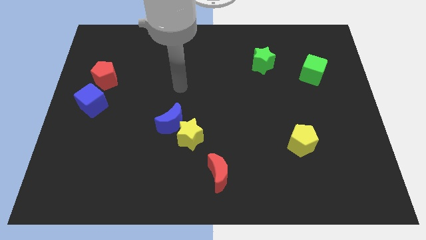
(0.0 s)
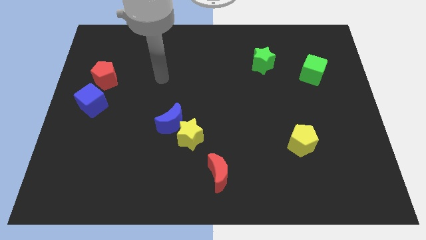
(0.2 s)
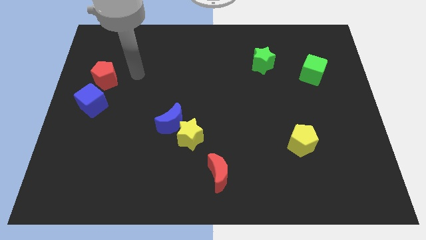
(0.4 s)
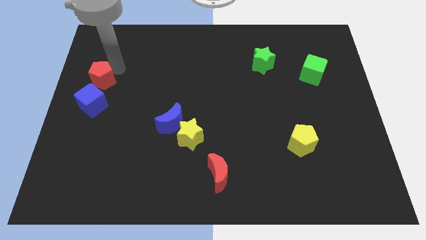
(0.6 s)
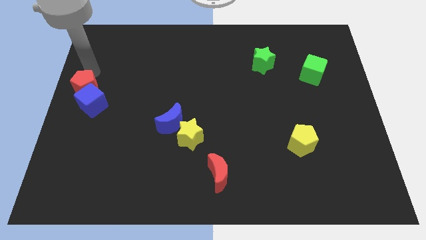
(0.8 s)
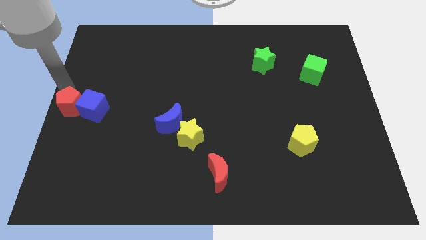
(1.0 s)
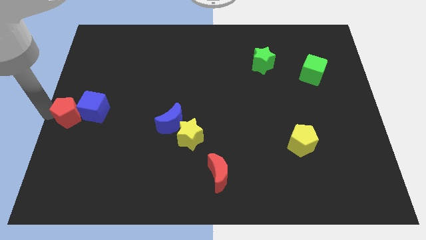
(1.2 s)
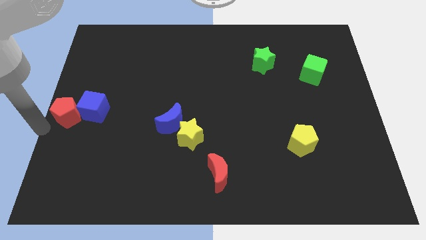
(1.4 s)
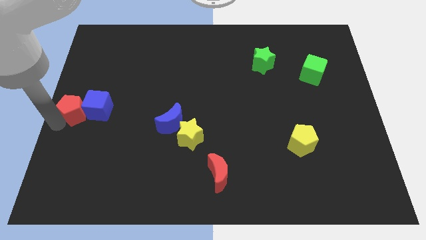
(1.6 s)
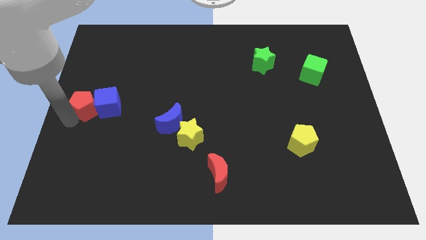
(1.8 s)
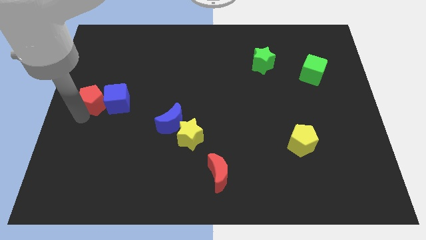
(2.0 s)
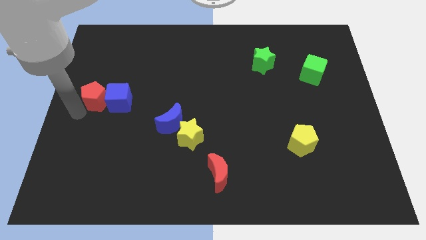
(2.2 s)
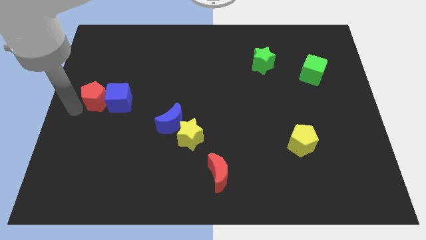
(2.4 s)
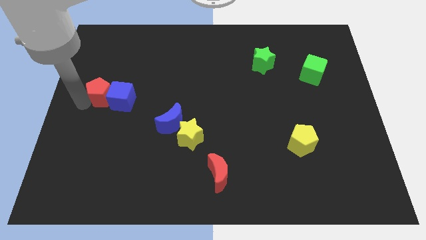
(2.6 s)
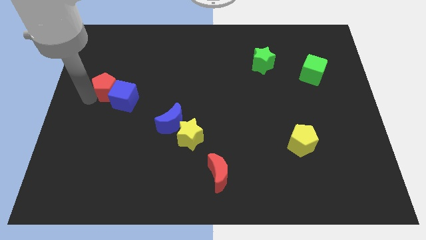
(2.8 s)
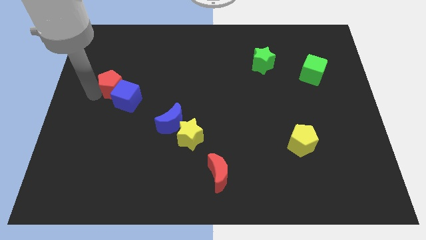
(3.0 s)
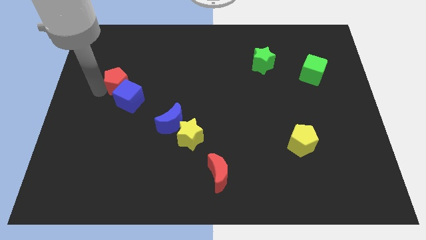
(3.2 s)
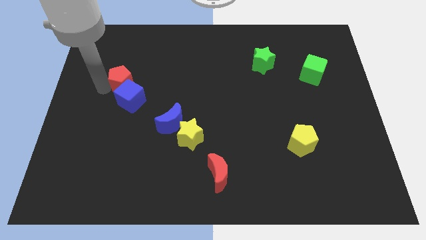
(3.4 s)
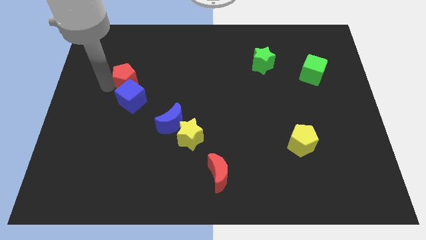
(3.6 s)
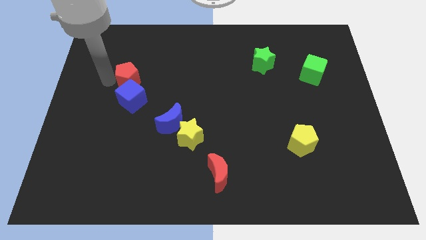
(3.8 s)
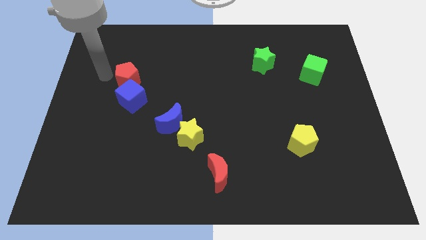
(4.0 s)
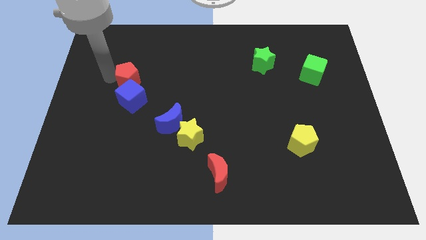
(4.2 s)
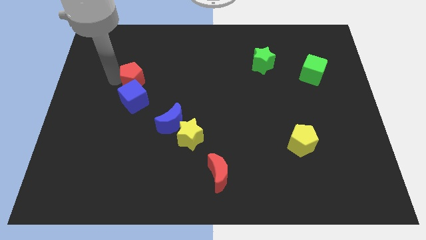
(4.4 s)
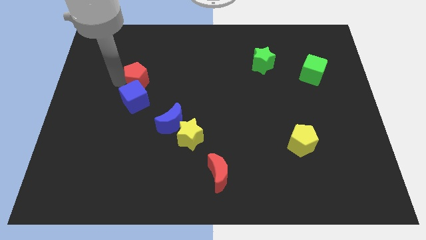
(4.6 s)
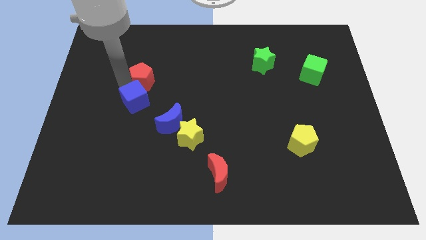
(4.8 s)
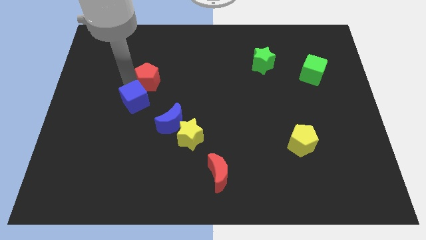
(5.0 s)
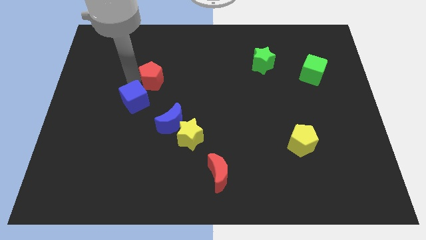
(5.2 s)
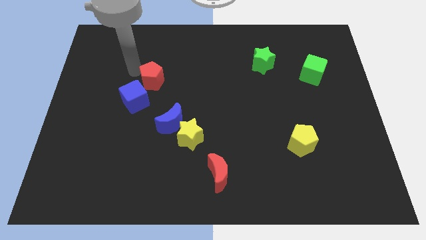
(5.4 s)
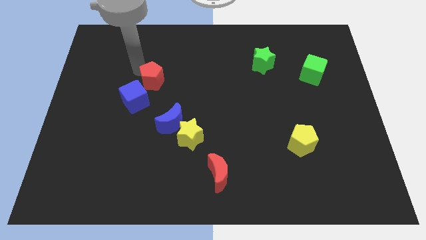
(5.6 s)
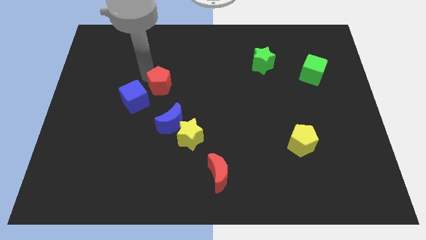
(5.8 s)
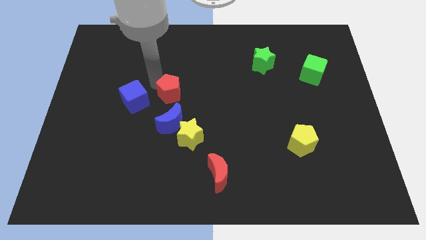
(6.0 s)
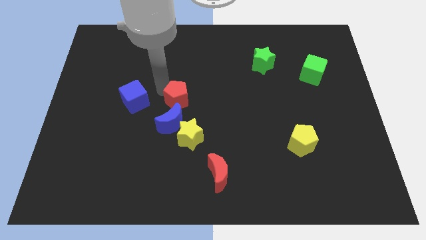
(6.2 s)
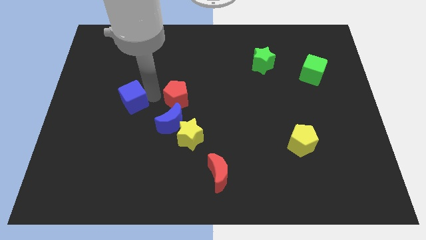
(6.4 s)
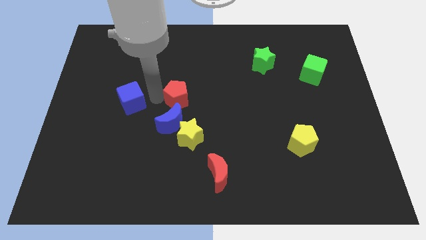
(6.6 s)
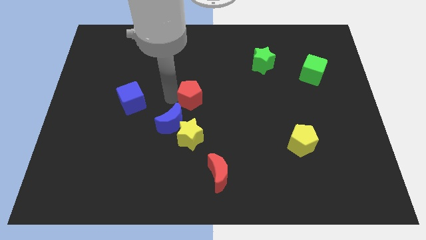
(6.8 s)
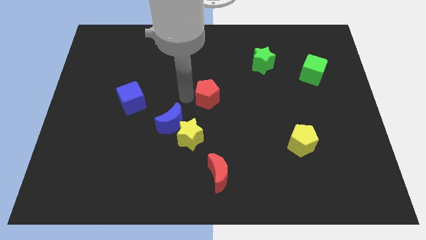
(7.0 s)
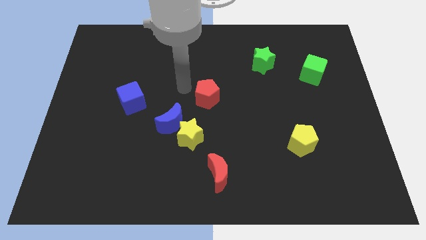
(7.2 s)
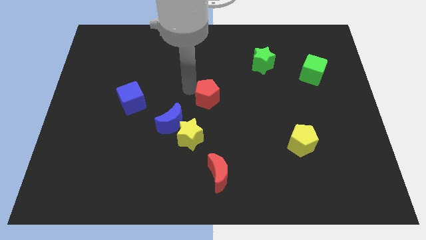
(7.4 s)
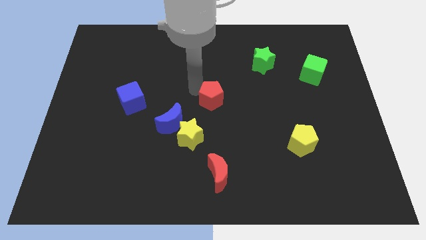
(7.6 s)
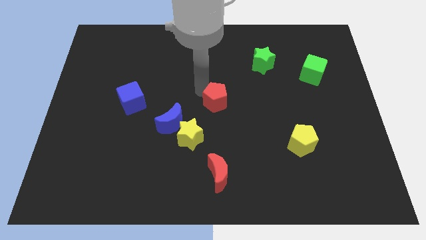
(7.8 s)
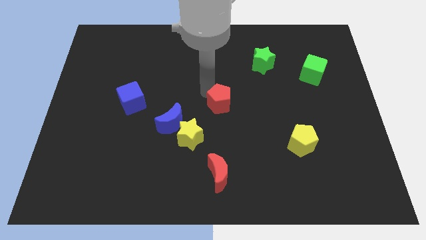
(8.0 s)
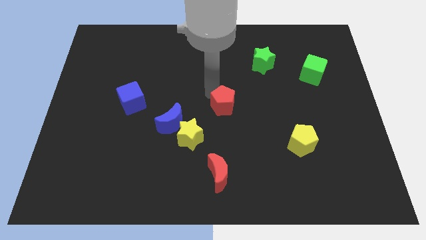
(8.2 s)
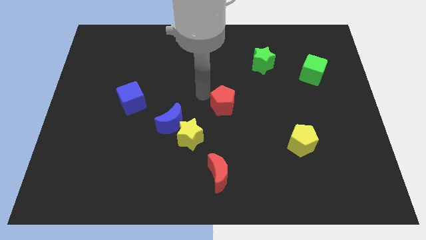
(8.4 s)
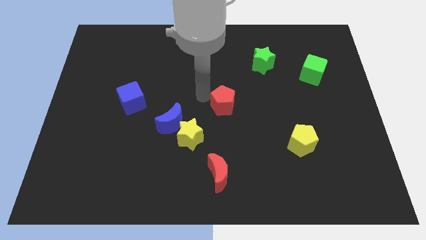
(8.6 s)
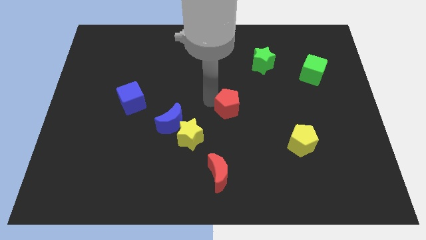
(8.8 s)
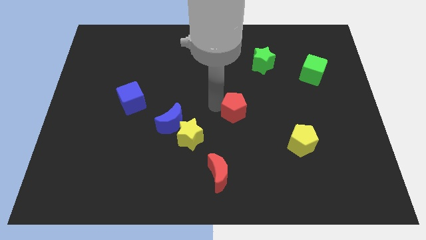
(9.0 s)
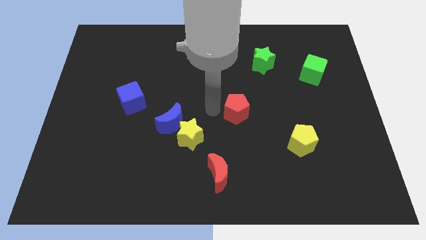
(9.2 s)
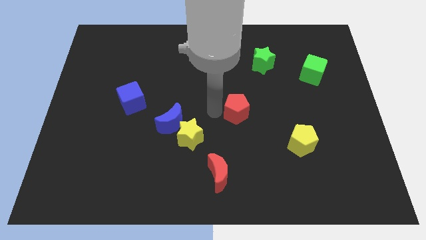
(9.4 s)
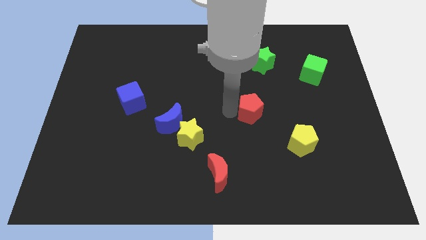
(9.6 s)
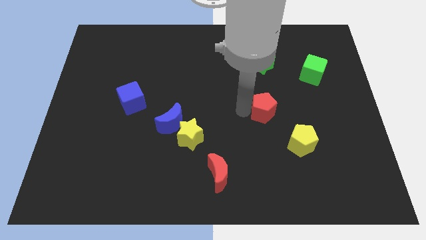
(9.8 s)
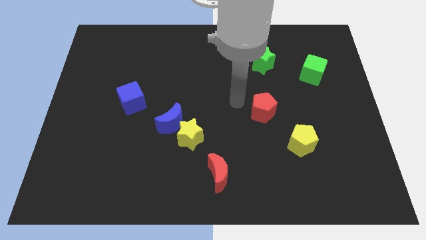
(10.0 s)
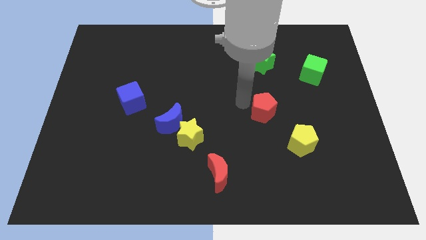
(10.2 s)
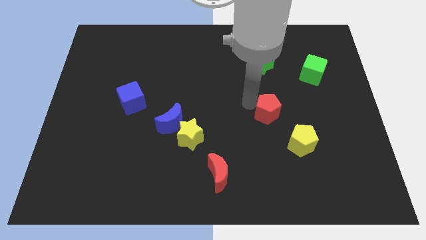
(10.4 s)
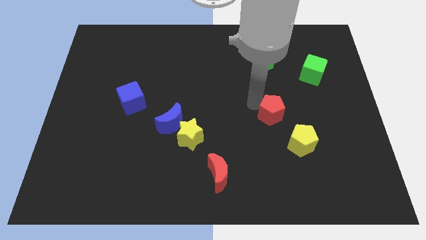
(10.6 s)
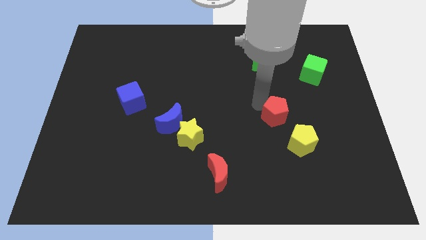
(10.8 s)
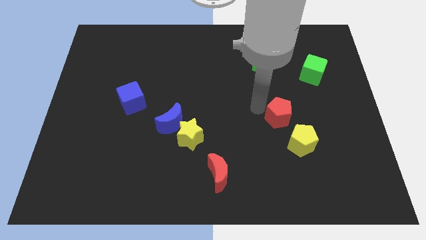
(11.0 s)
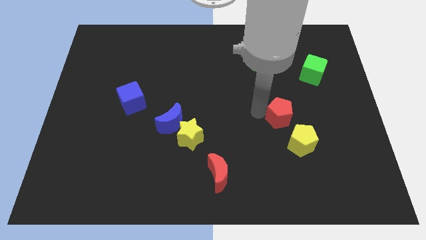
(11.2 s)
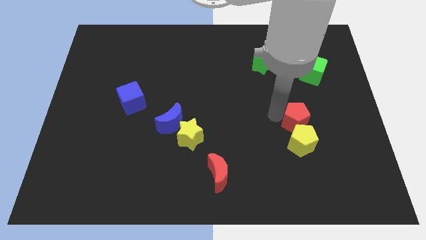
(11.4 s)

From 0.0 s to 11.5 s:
move the red pentagon diagonally up and to the right of the yellow pentagon

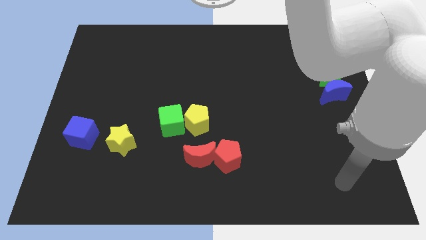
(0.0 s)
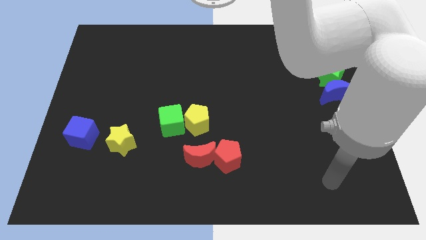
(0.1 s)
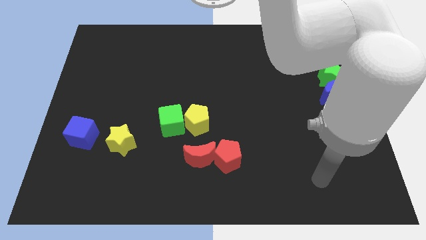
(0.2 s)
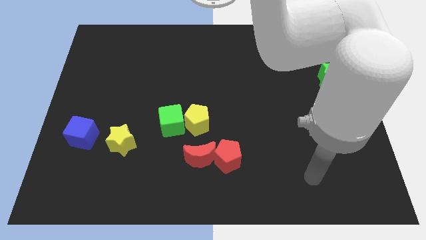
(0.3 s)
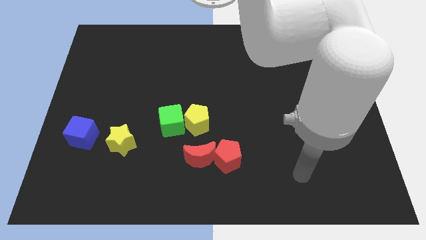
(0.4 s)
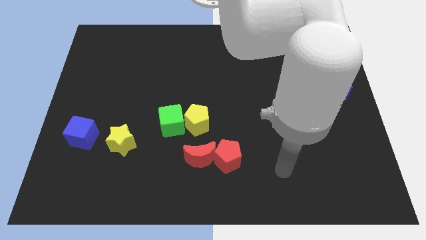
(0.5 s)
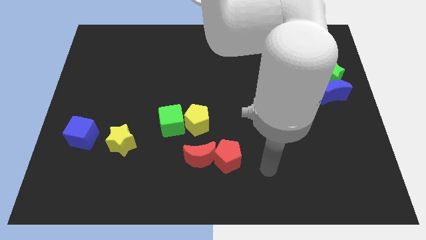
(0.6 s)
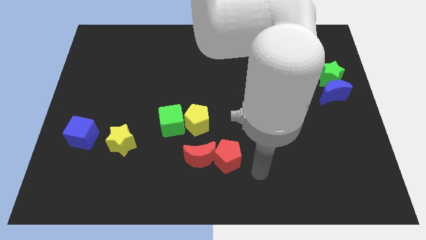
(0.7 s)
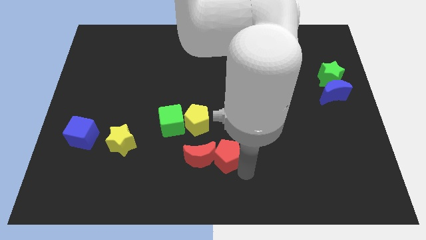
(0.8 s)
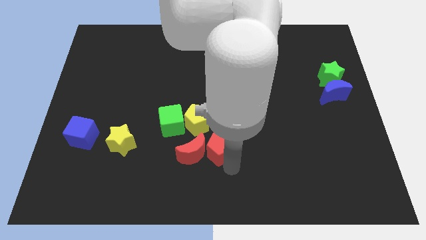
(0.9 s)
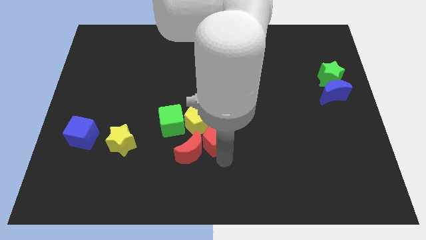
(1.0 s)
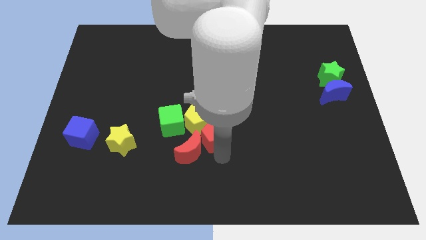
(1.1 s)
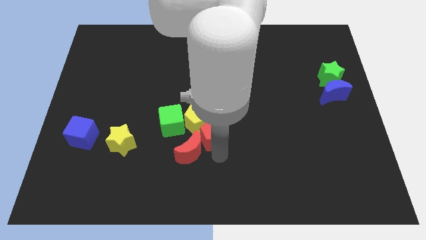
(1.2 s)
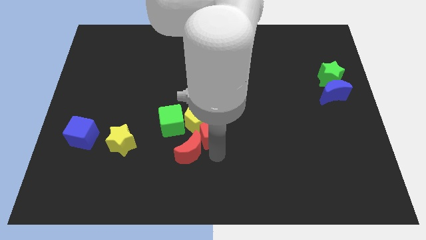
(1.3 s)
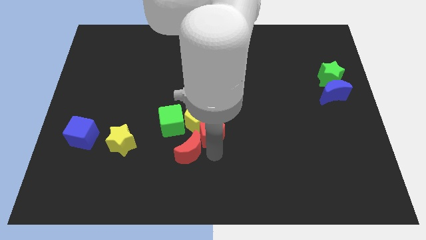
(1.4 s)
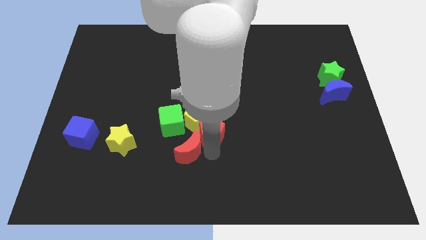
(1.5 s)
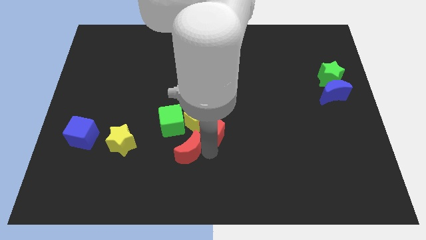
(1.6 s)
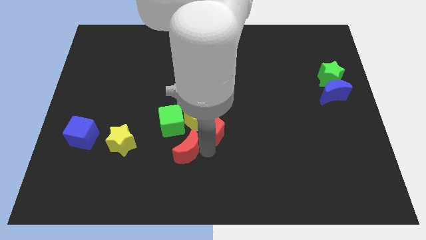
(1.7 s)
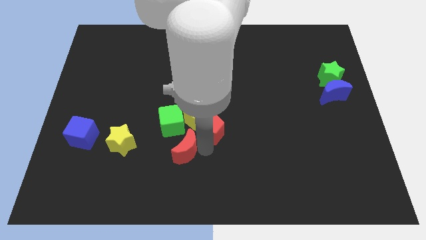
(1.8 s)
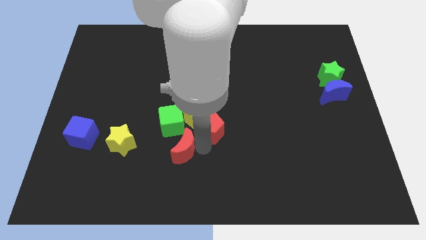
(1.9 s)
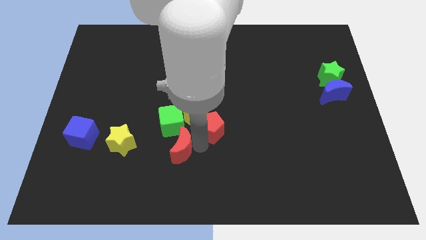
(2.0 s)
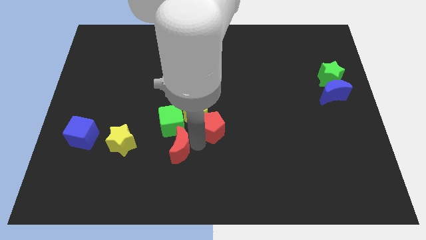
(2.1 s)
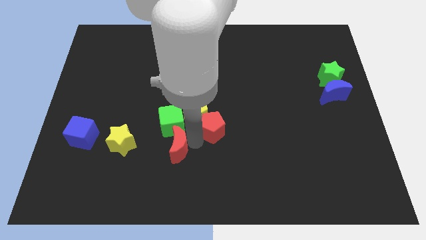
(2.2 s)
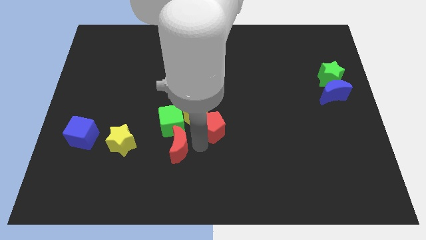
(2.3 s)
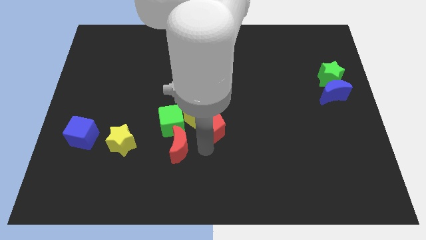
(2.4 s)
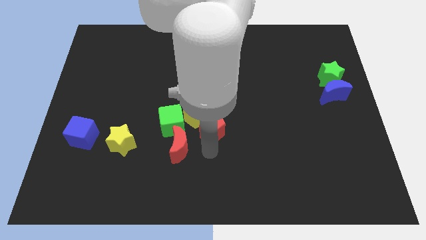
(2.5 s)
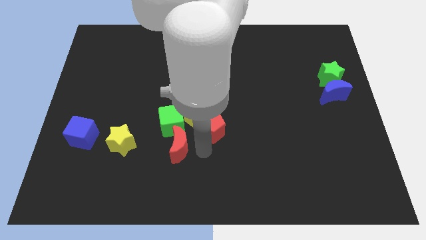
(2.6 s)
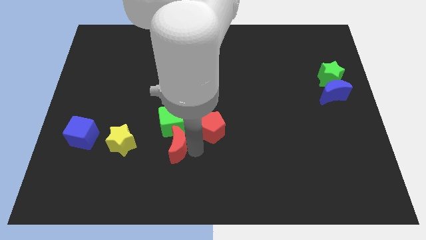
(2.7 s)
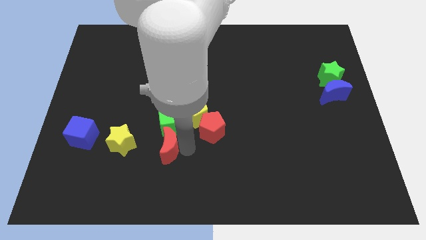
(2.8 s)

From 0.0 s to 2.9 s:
move the red moon diagonally down and to the left of the green cube

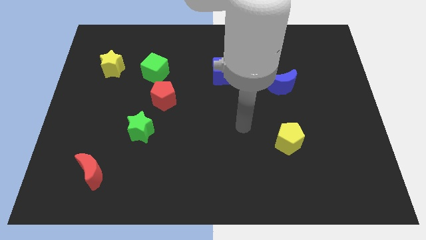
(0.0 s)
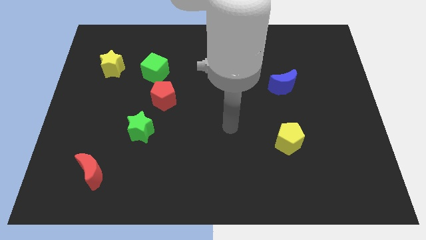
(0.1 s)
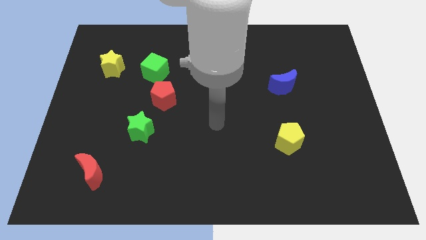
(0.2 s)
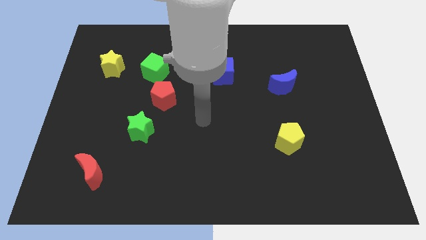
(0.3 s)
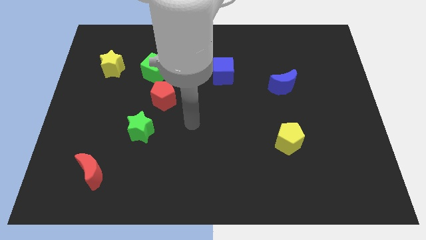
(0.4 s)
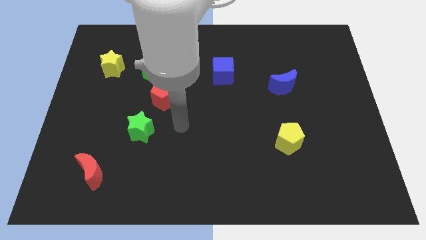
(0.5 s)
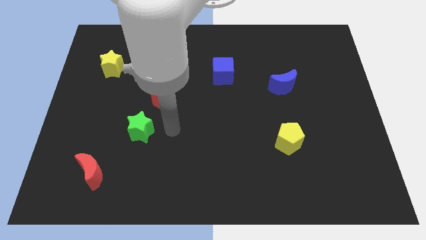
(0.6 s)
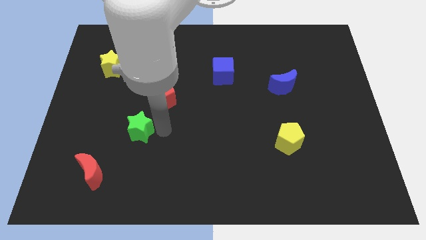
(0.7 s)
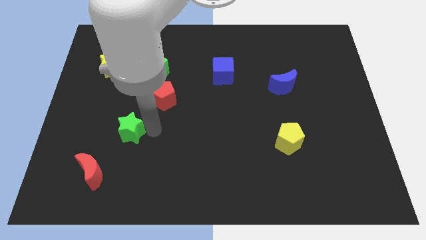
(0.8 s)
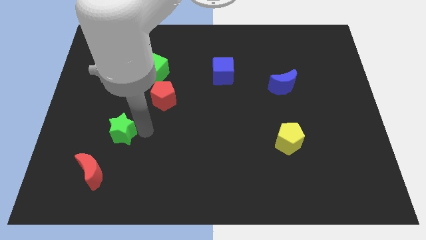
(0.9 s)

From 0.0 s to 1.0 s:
slide the green star above the red moon
